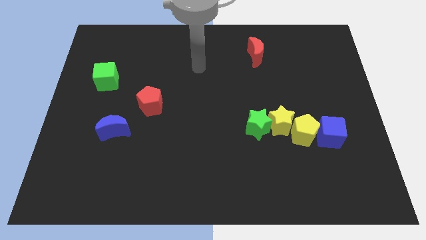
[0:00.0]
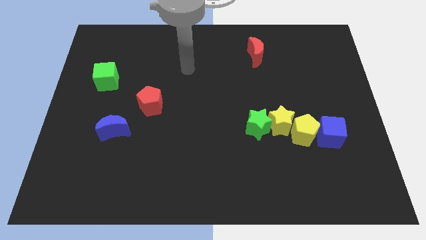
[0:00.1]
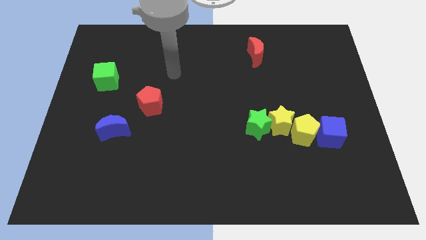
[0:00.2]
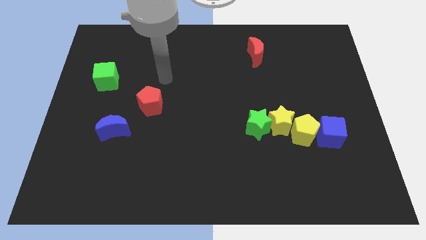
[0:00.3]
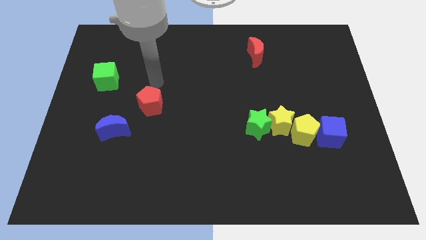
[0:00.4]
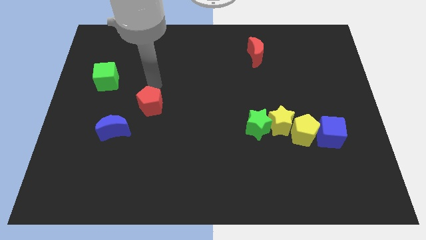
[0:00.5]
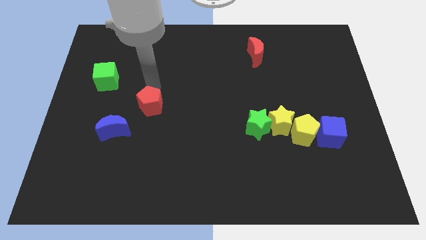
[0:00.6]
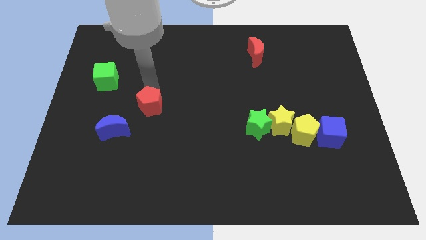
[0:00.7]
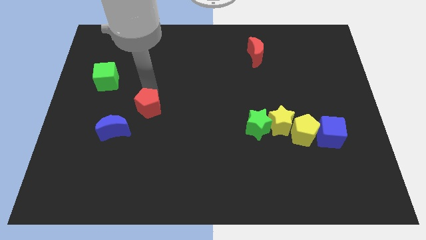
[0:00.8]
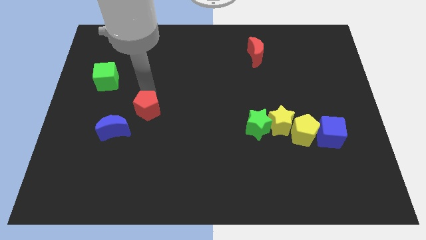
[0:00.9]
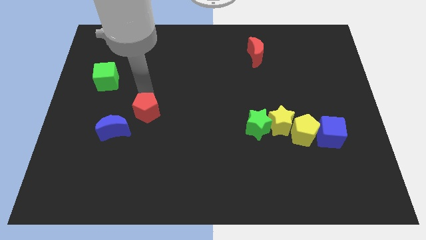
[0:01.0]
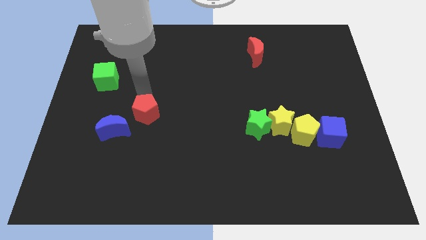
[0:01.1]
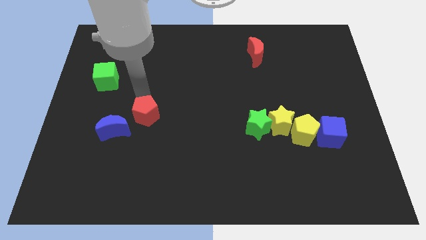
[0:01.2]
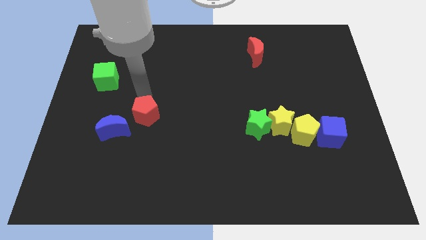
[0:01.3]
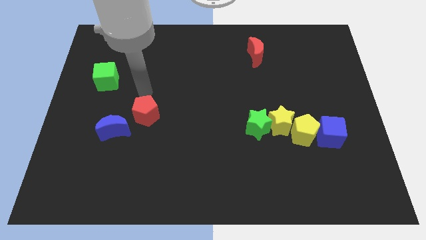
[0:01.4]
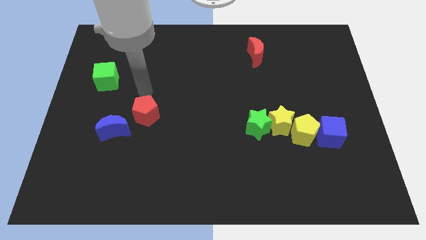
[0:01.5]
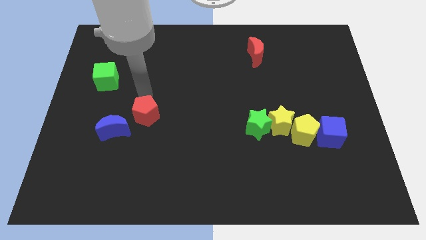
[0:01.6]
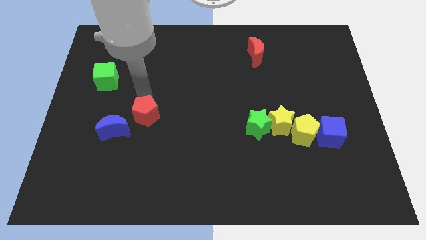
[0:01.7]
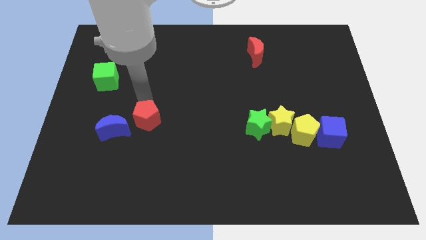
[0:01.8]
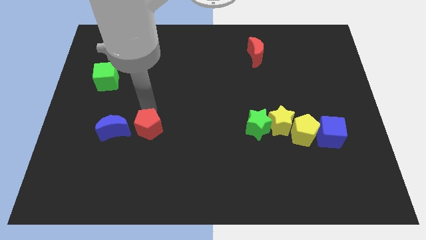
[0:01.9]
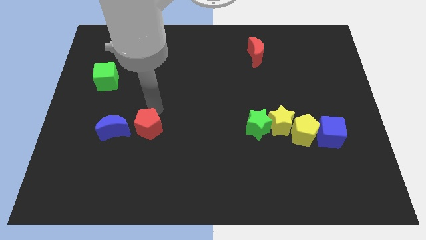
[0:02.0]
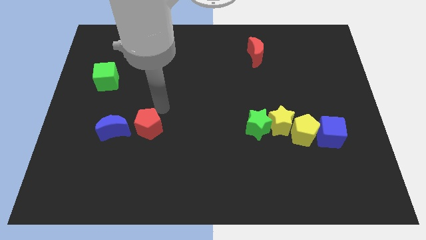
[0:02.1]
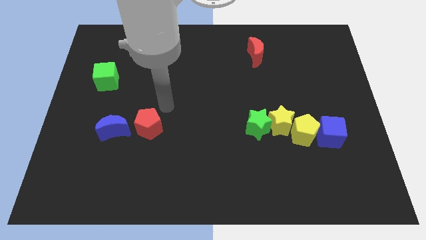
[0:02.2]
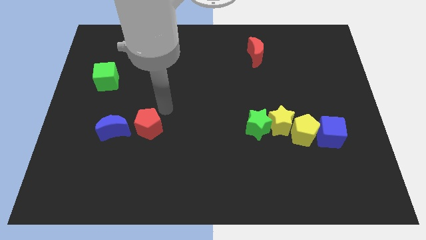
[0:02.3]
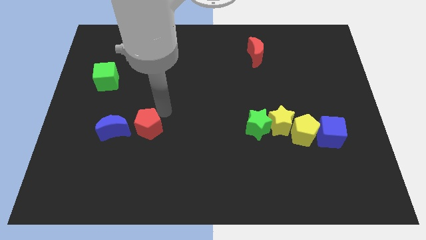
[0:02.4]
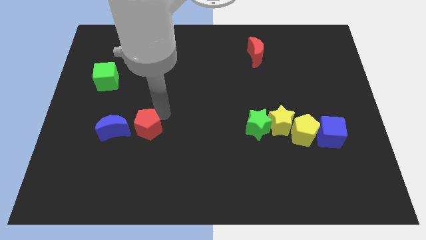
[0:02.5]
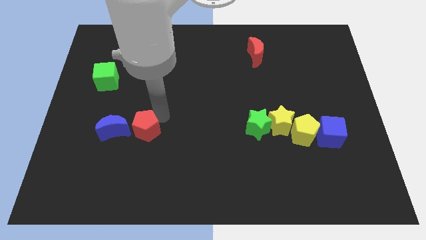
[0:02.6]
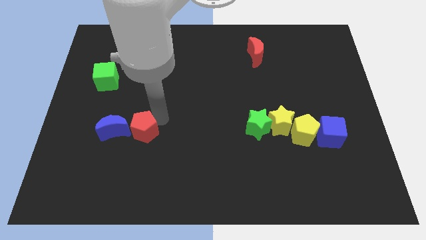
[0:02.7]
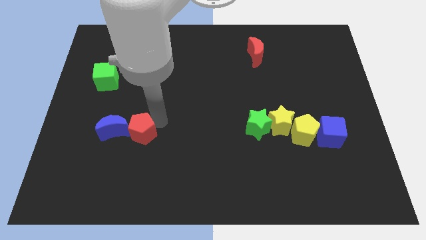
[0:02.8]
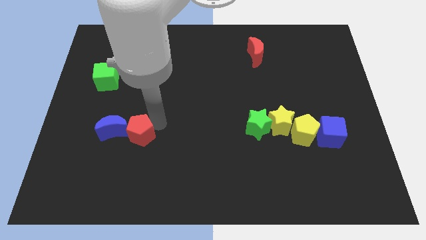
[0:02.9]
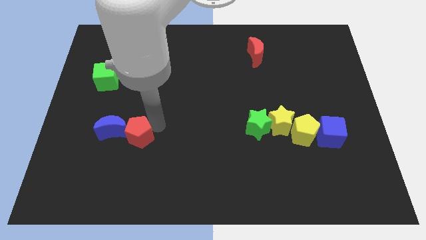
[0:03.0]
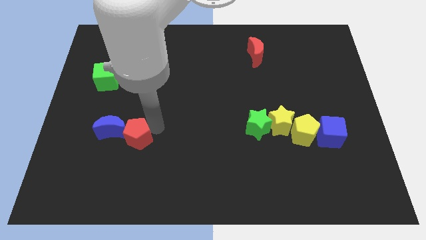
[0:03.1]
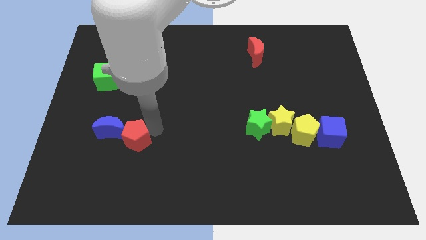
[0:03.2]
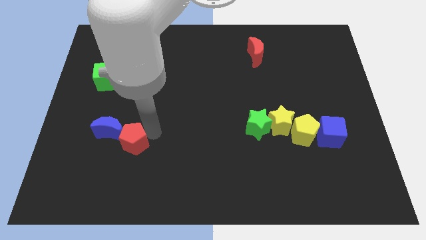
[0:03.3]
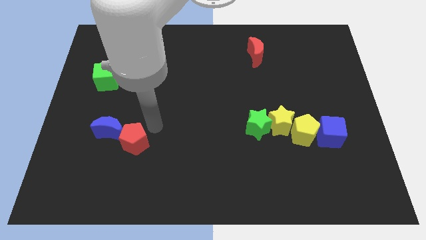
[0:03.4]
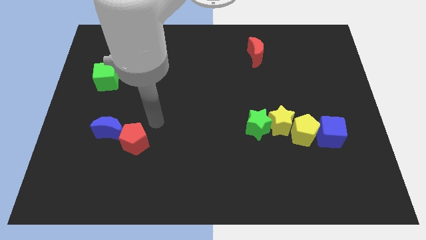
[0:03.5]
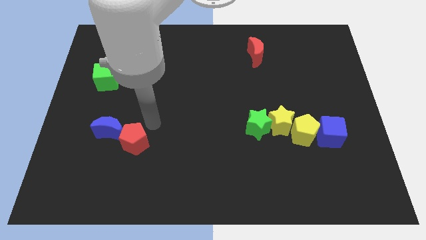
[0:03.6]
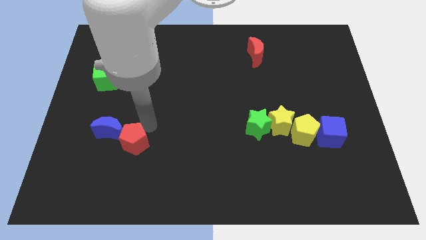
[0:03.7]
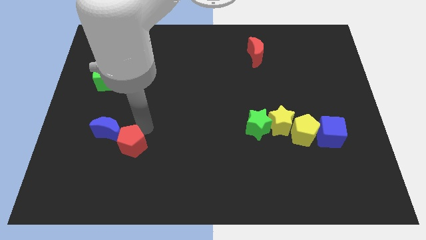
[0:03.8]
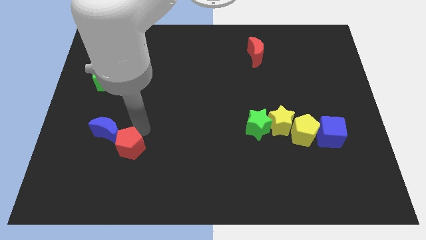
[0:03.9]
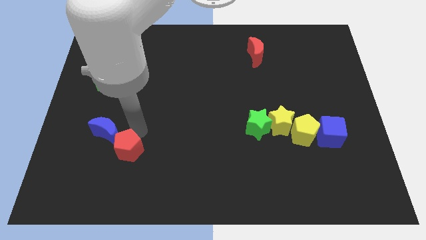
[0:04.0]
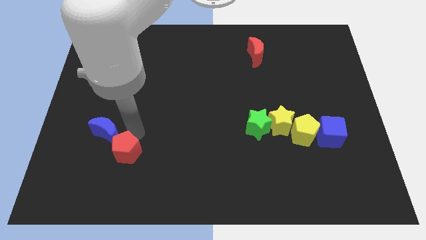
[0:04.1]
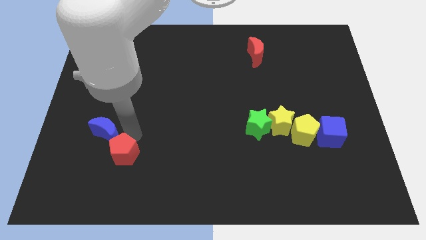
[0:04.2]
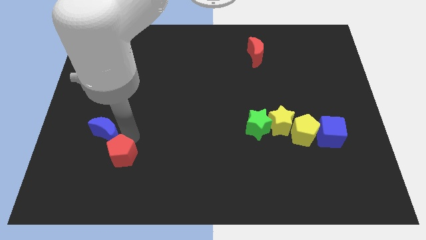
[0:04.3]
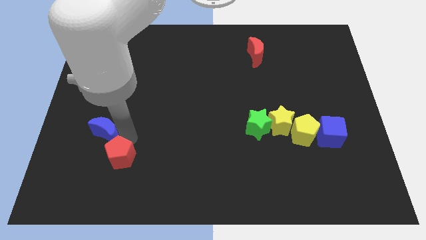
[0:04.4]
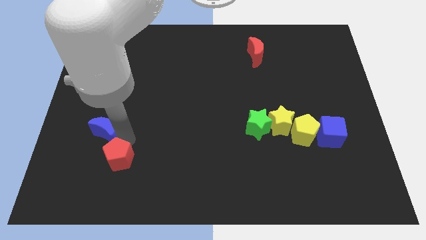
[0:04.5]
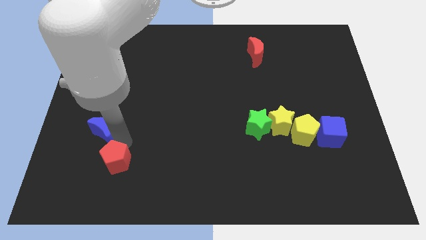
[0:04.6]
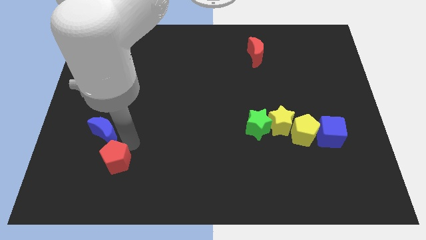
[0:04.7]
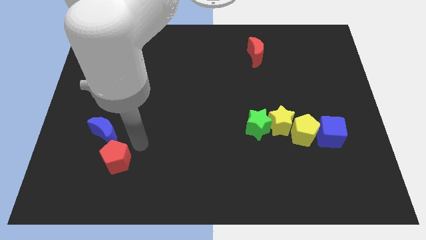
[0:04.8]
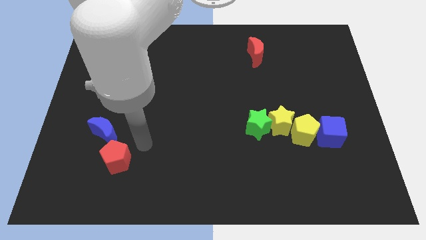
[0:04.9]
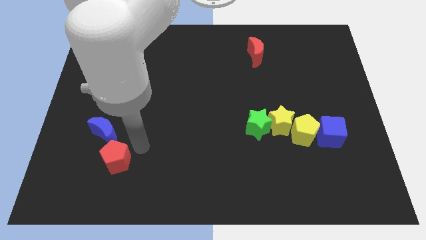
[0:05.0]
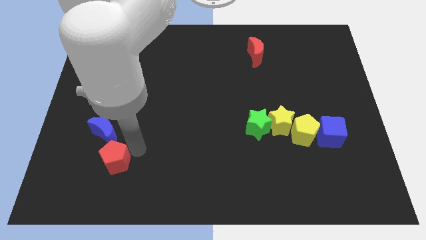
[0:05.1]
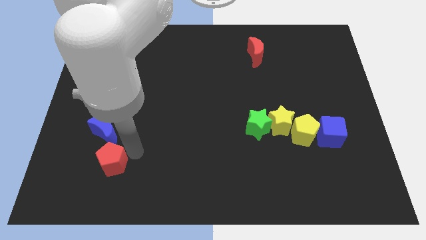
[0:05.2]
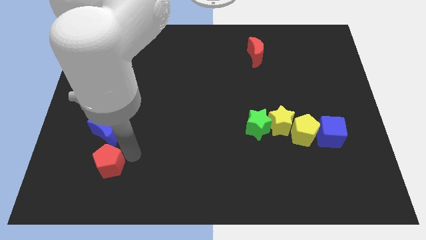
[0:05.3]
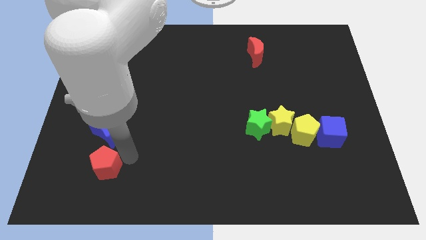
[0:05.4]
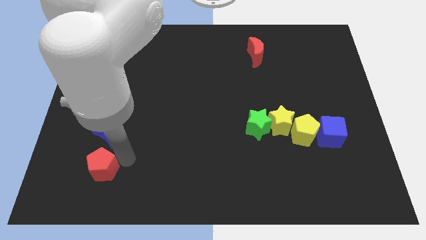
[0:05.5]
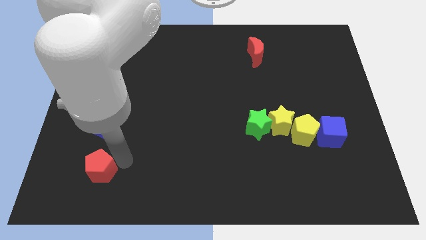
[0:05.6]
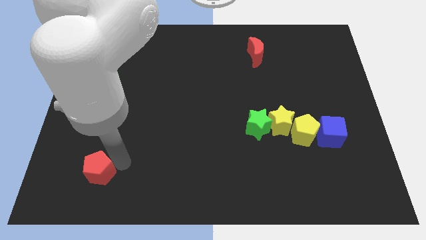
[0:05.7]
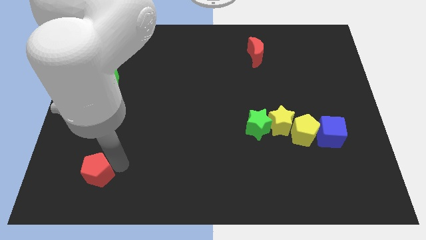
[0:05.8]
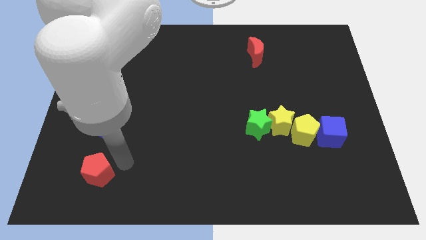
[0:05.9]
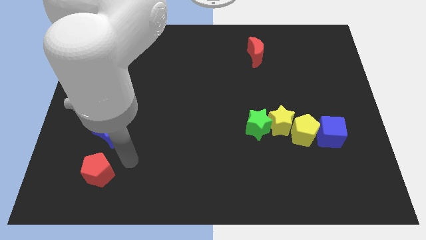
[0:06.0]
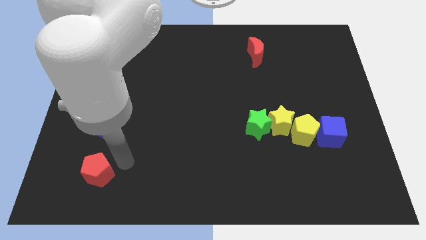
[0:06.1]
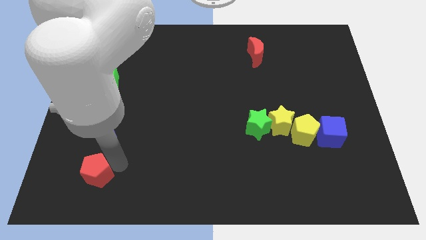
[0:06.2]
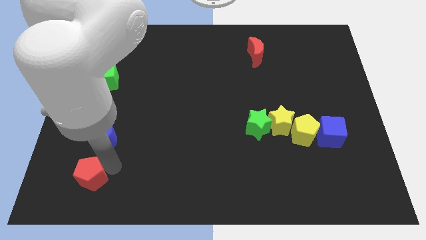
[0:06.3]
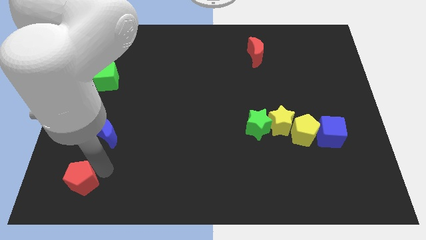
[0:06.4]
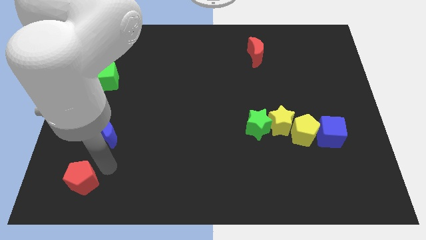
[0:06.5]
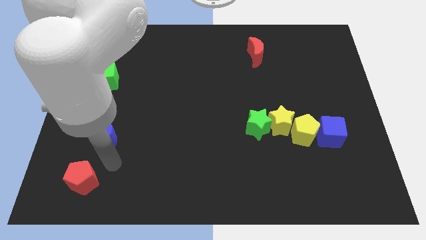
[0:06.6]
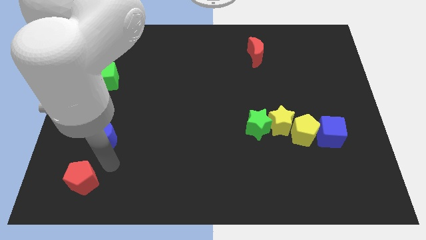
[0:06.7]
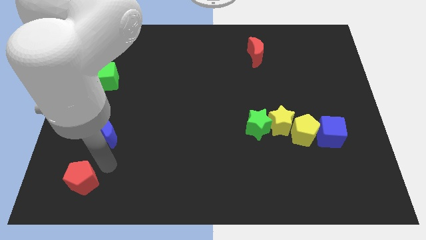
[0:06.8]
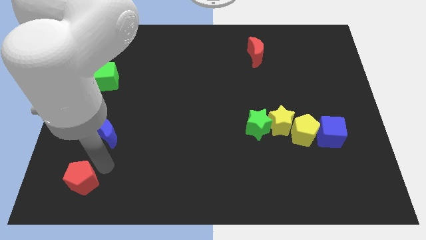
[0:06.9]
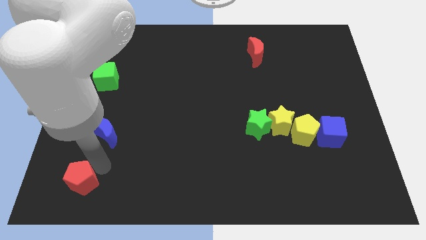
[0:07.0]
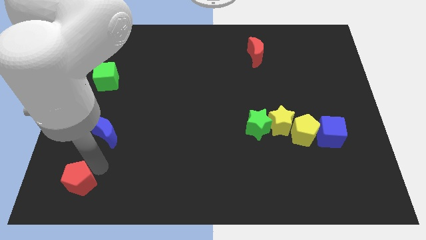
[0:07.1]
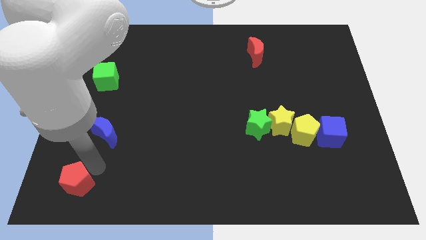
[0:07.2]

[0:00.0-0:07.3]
move the red pentagon to the bottom left of the board
